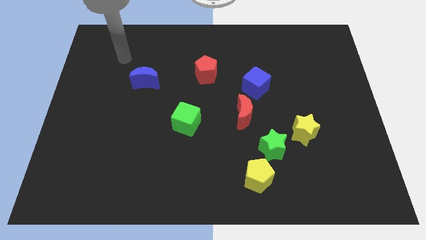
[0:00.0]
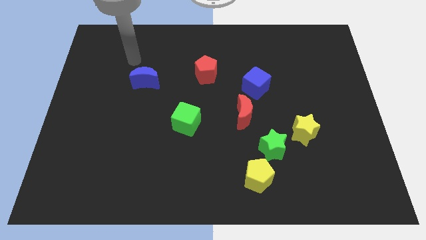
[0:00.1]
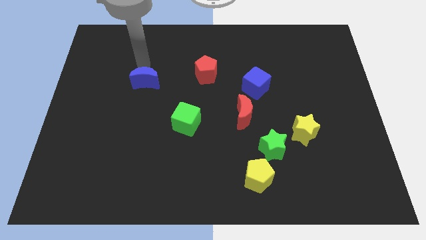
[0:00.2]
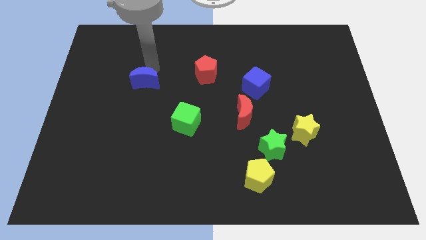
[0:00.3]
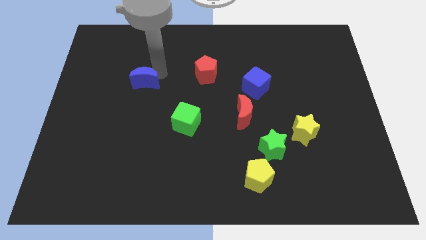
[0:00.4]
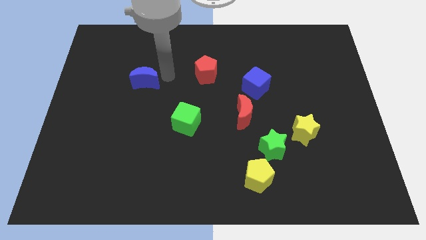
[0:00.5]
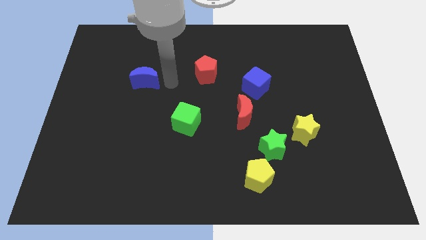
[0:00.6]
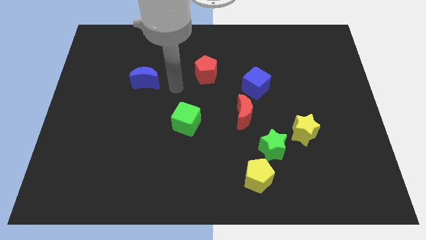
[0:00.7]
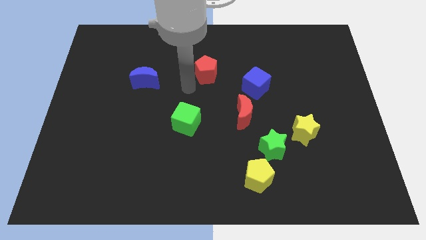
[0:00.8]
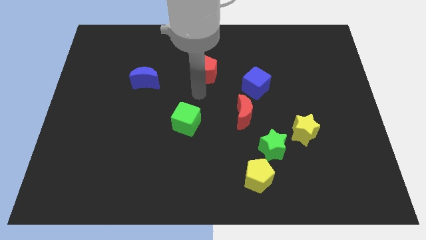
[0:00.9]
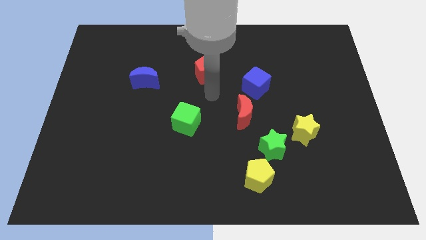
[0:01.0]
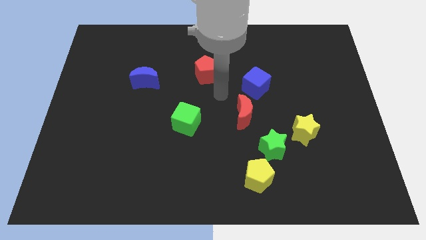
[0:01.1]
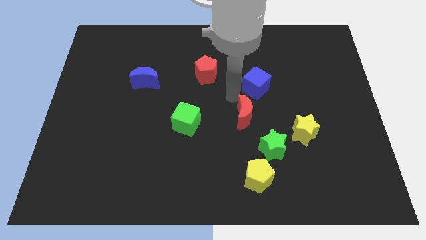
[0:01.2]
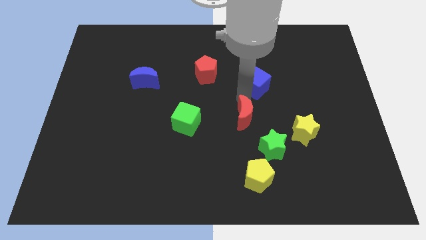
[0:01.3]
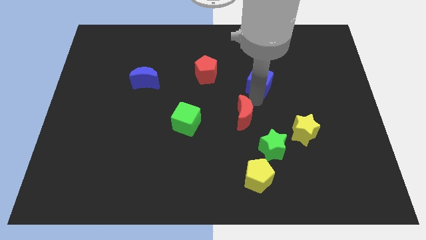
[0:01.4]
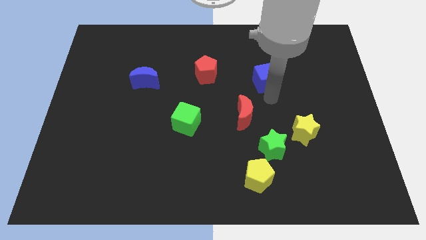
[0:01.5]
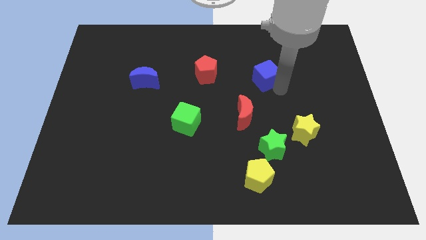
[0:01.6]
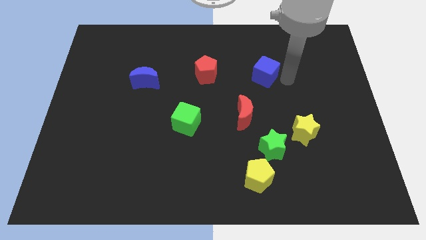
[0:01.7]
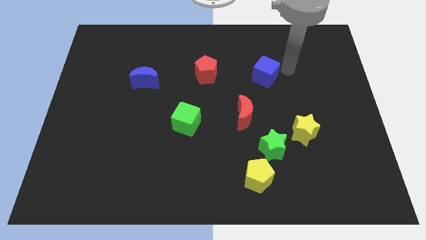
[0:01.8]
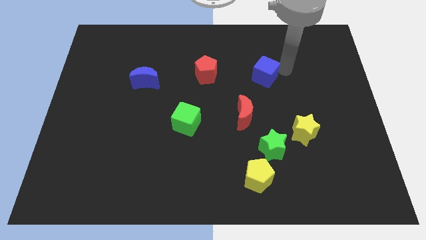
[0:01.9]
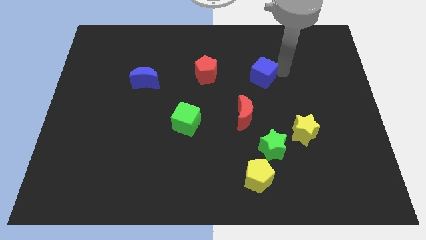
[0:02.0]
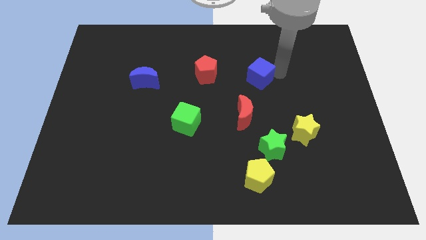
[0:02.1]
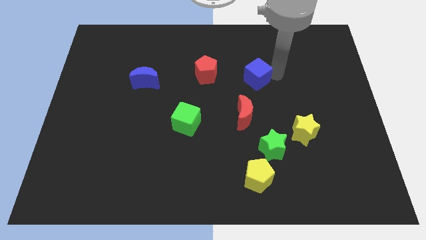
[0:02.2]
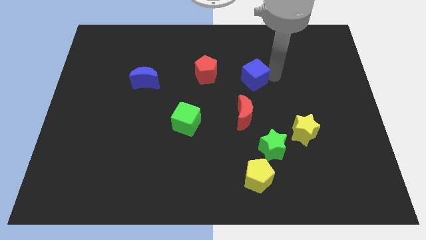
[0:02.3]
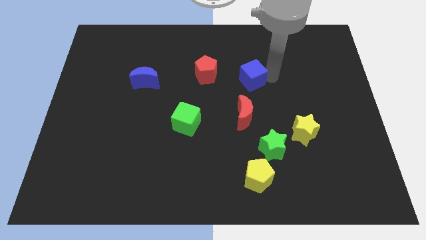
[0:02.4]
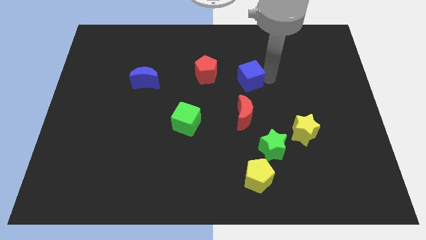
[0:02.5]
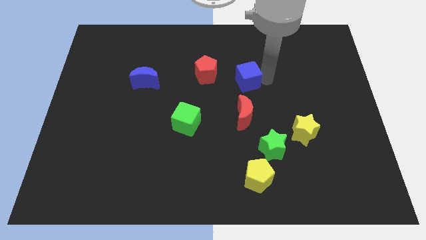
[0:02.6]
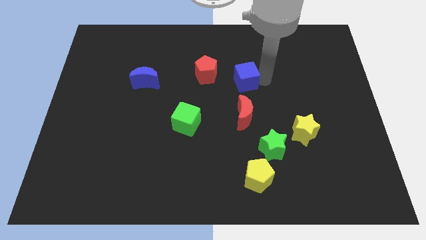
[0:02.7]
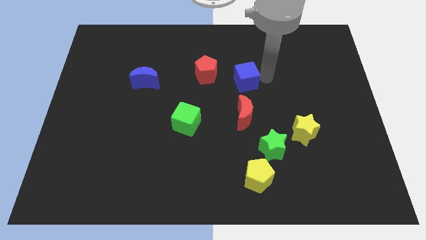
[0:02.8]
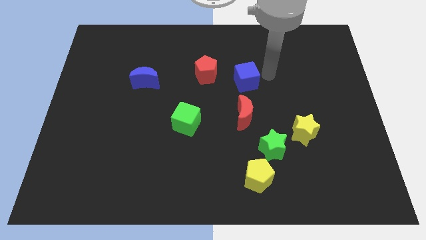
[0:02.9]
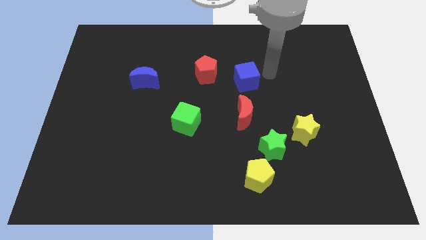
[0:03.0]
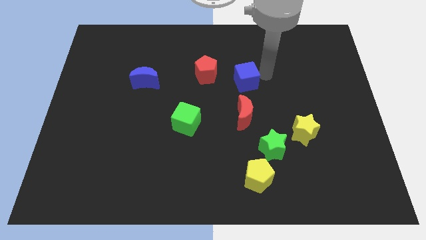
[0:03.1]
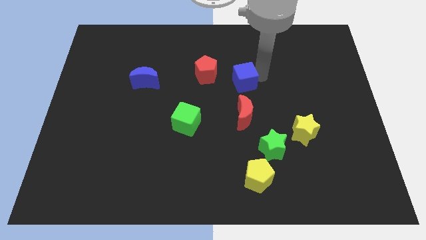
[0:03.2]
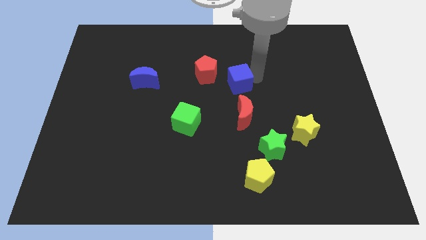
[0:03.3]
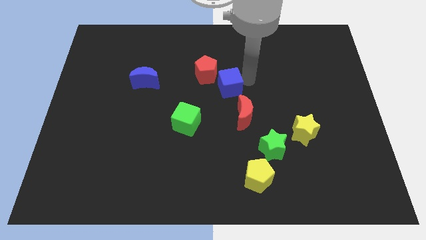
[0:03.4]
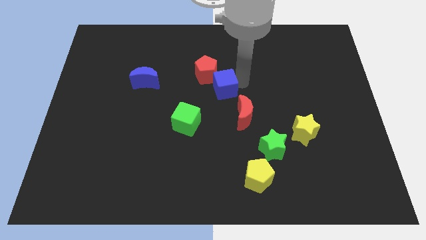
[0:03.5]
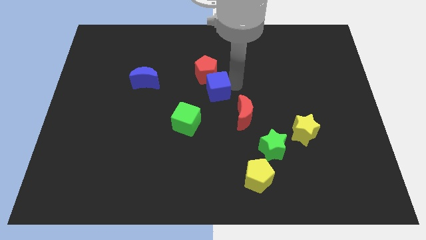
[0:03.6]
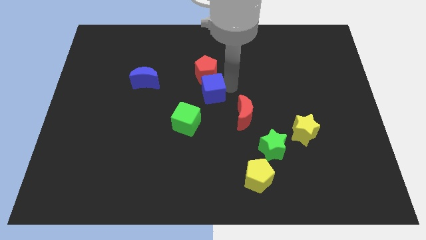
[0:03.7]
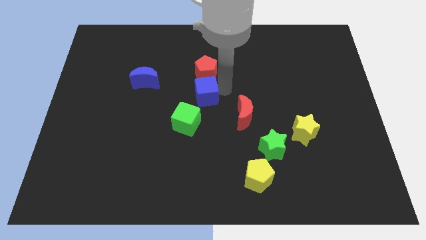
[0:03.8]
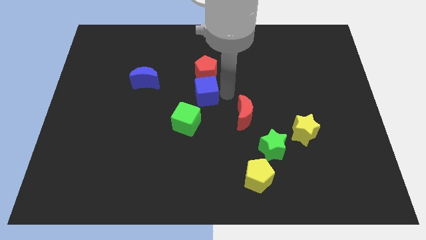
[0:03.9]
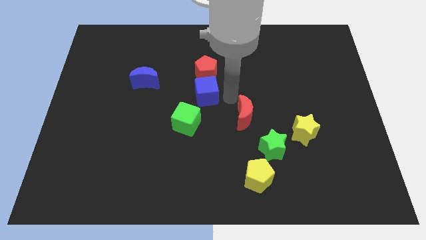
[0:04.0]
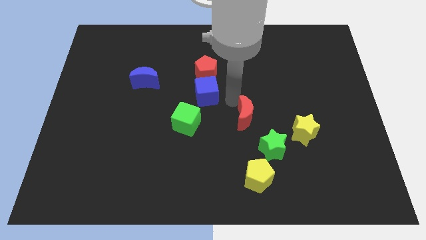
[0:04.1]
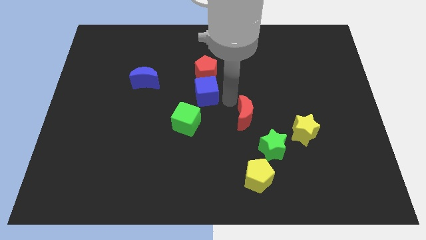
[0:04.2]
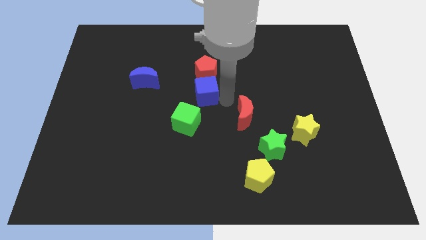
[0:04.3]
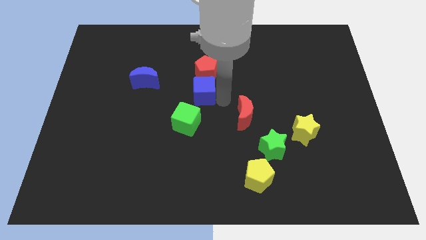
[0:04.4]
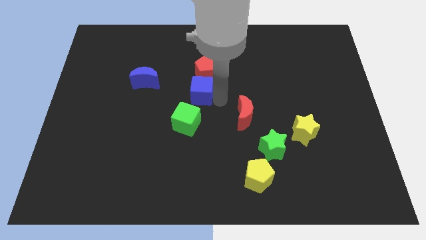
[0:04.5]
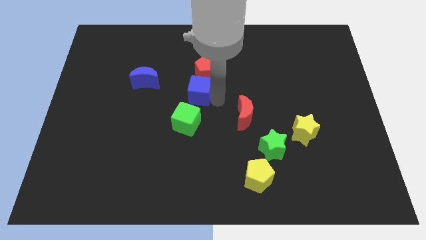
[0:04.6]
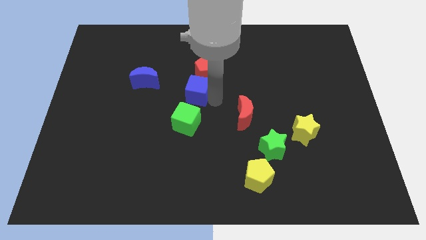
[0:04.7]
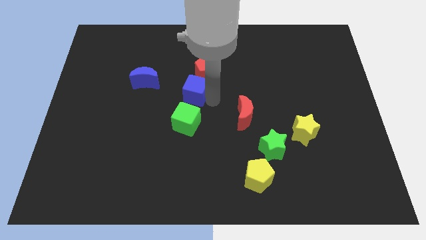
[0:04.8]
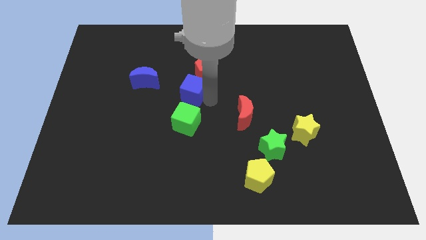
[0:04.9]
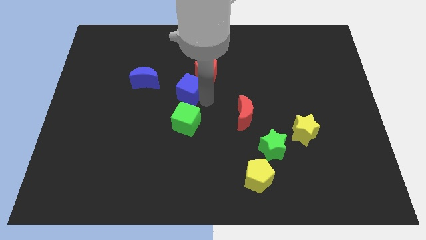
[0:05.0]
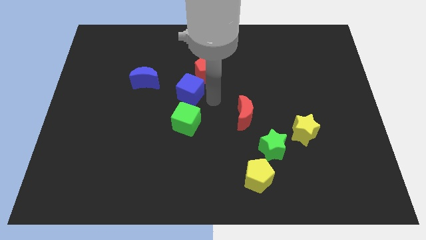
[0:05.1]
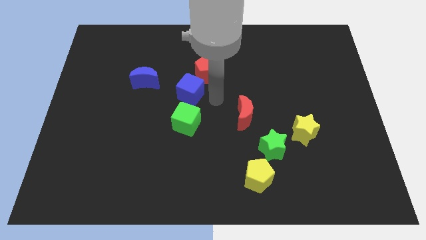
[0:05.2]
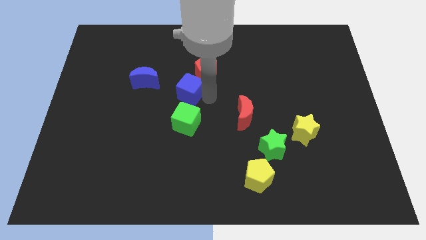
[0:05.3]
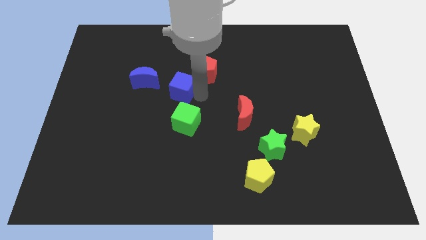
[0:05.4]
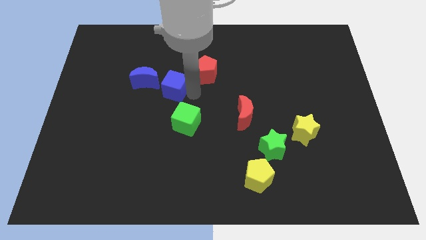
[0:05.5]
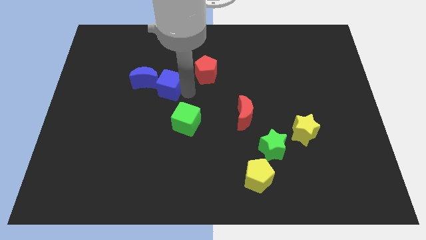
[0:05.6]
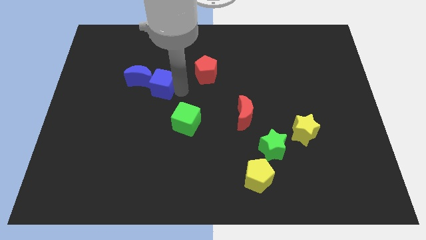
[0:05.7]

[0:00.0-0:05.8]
slide the blue cube towards the blue moon

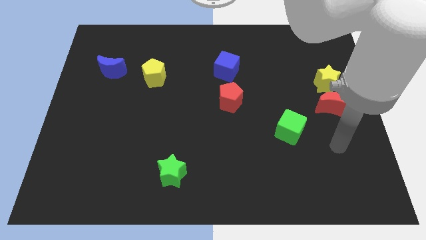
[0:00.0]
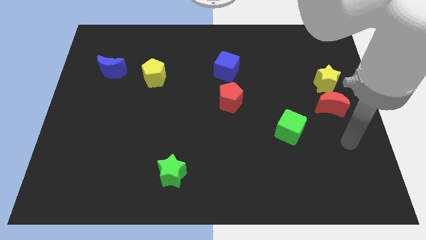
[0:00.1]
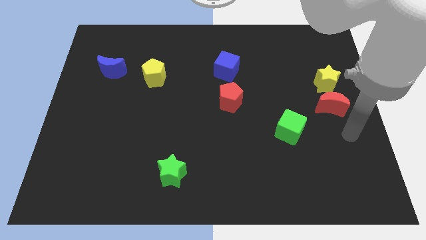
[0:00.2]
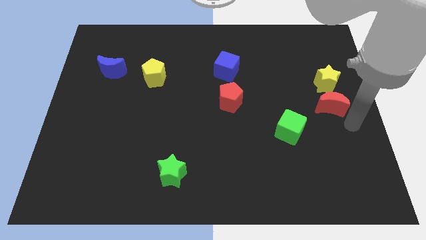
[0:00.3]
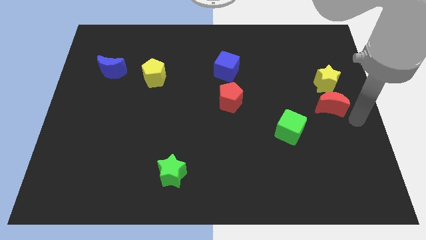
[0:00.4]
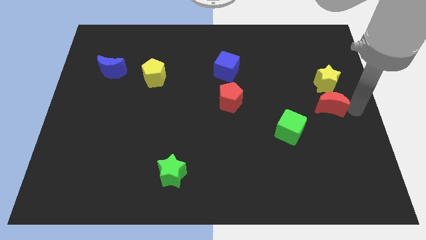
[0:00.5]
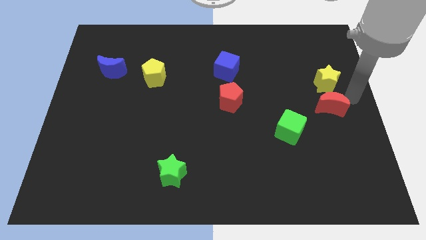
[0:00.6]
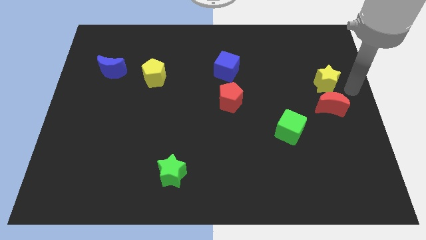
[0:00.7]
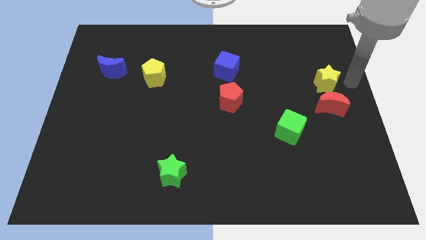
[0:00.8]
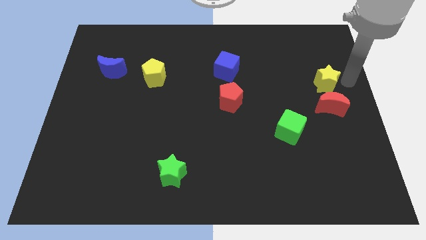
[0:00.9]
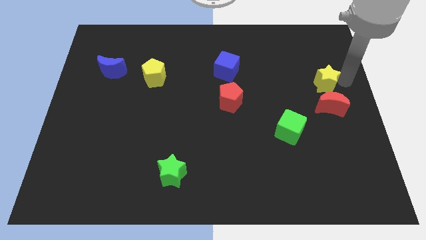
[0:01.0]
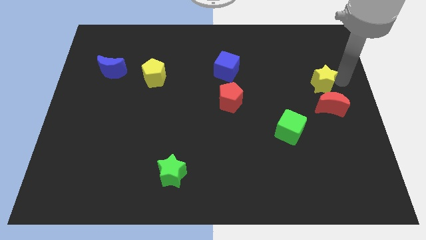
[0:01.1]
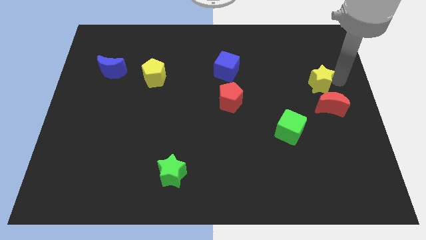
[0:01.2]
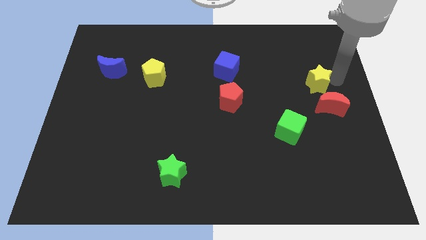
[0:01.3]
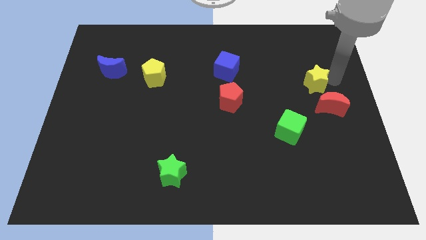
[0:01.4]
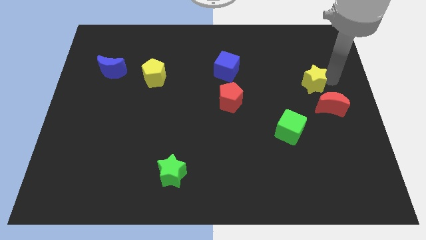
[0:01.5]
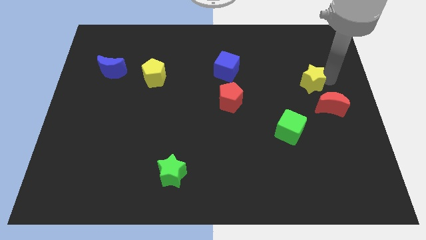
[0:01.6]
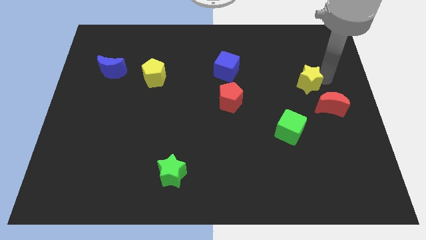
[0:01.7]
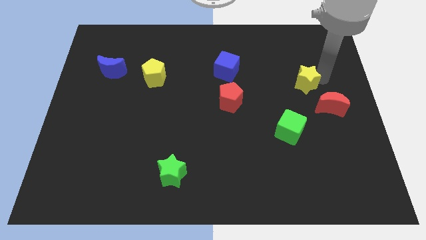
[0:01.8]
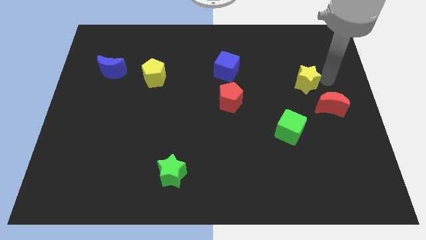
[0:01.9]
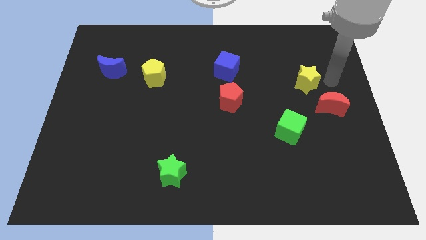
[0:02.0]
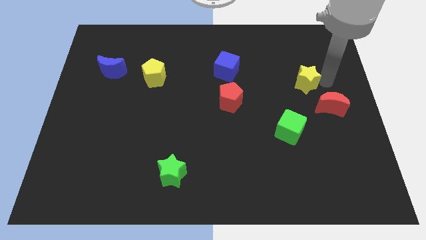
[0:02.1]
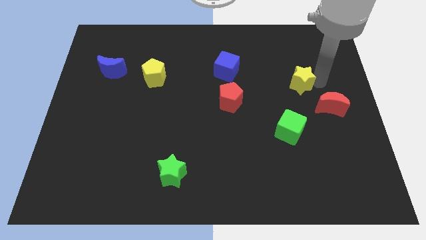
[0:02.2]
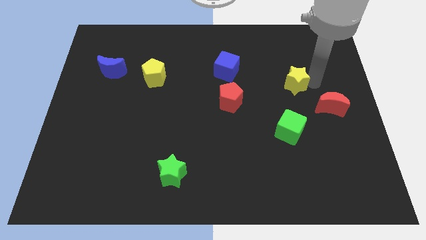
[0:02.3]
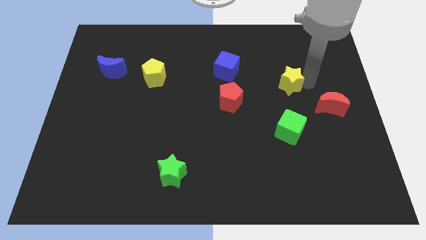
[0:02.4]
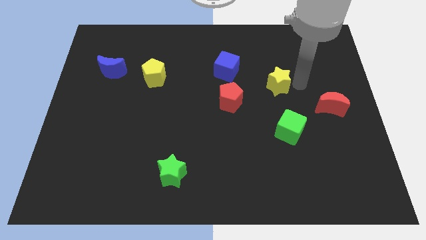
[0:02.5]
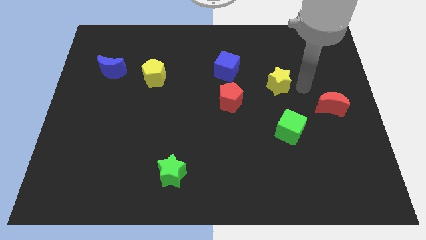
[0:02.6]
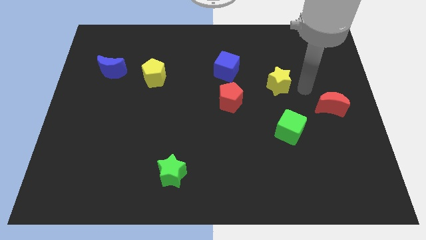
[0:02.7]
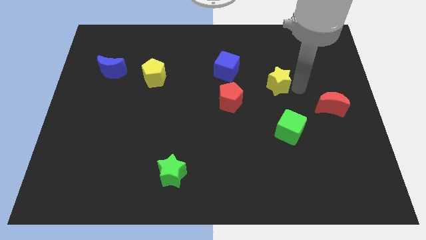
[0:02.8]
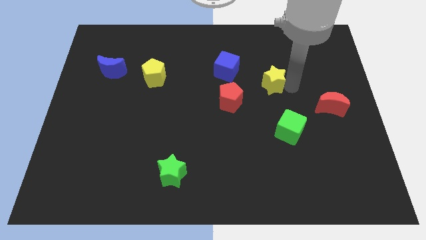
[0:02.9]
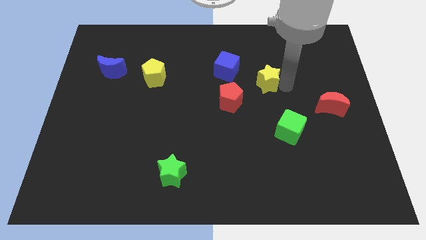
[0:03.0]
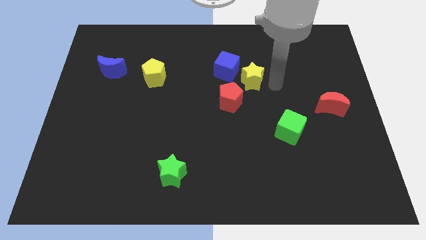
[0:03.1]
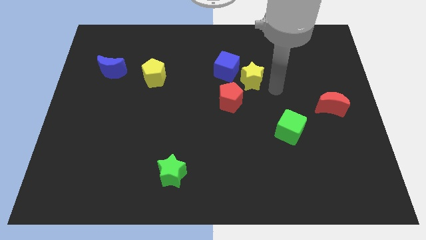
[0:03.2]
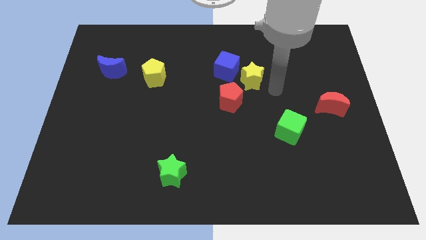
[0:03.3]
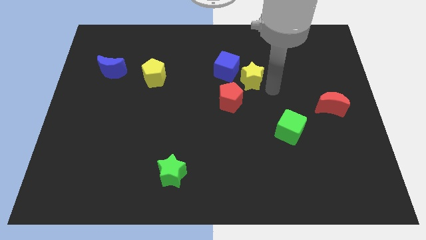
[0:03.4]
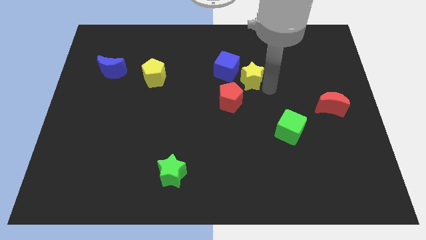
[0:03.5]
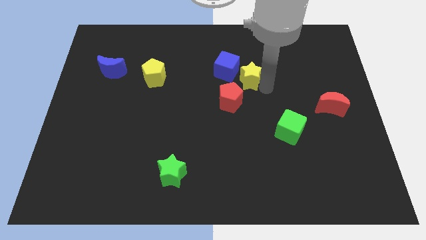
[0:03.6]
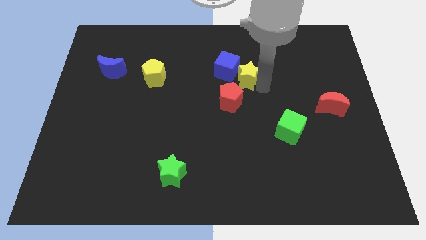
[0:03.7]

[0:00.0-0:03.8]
move the yellow star towards the blue cube
